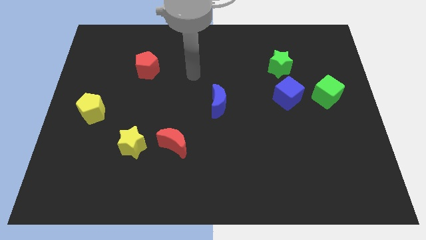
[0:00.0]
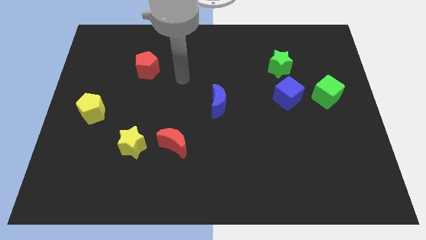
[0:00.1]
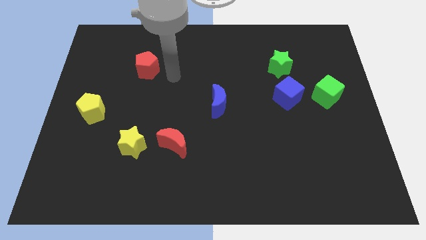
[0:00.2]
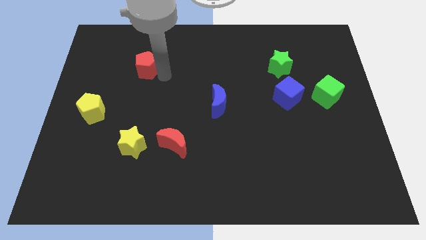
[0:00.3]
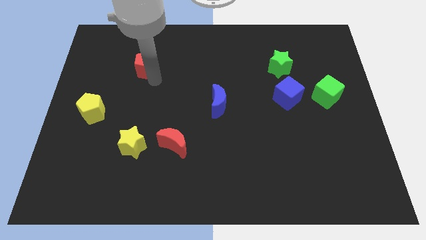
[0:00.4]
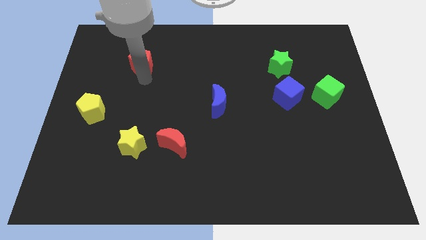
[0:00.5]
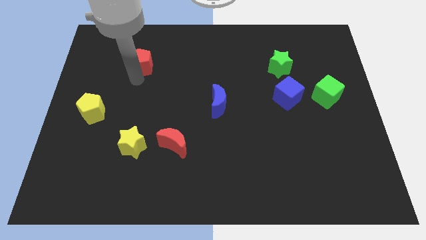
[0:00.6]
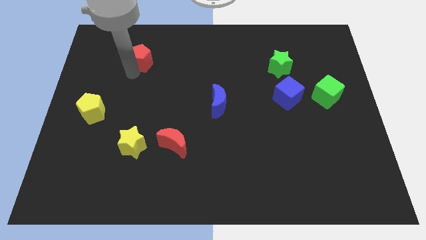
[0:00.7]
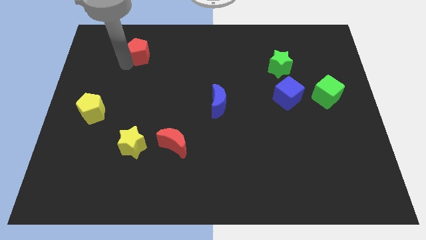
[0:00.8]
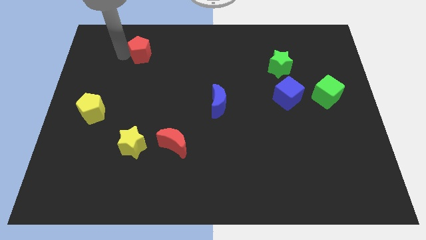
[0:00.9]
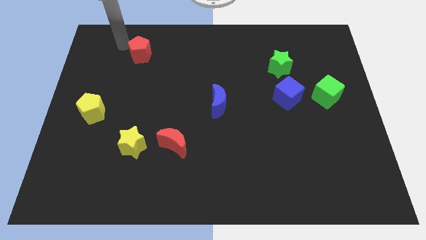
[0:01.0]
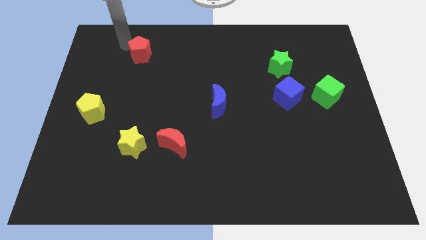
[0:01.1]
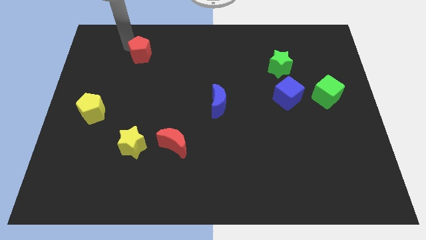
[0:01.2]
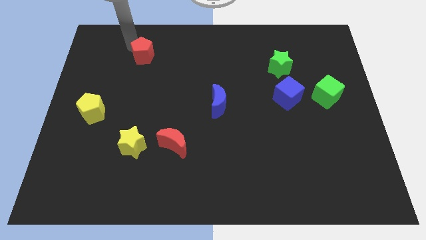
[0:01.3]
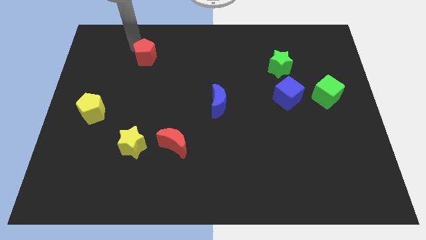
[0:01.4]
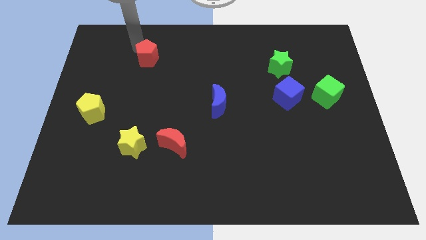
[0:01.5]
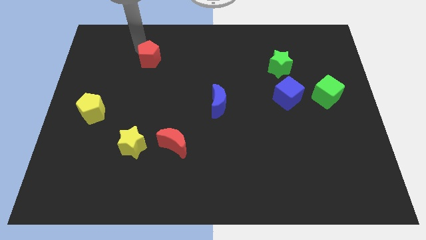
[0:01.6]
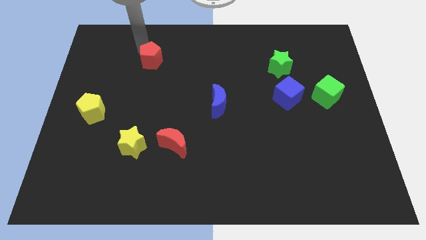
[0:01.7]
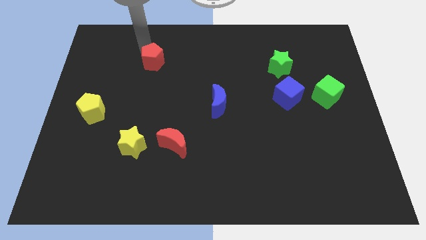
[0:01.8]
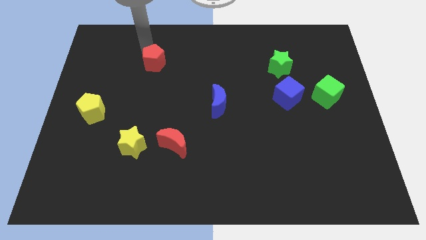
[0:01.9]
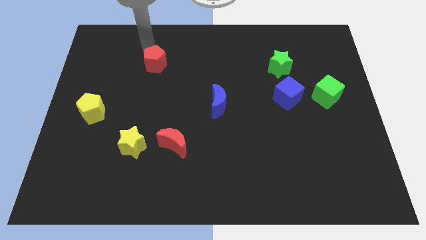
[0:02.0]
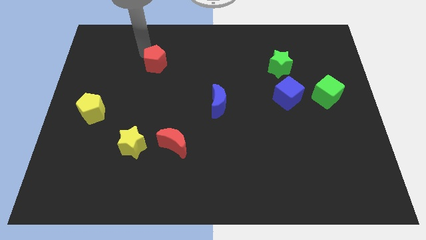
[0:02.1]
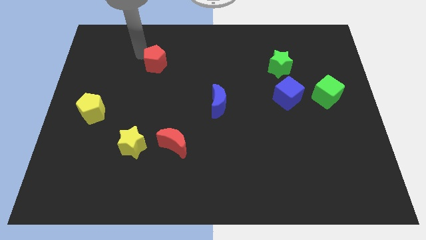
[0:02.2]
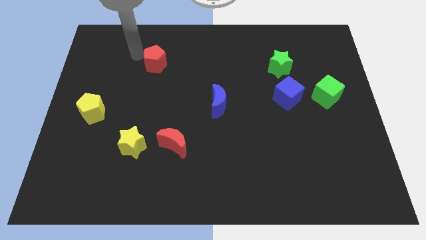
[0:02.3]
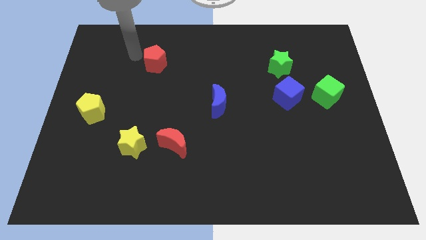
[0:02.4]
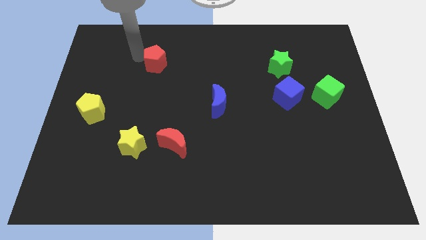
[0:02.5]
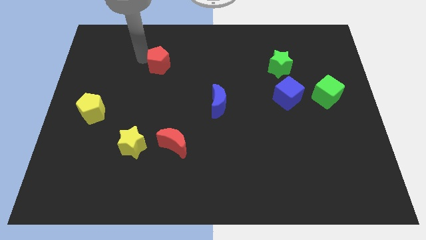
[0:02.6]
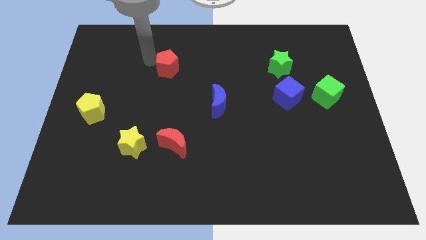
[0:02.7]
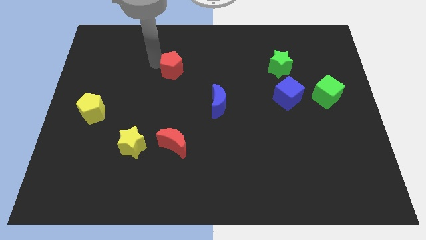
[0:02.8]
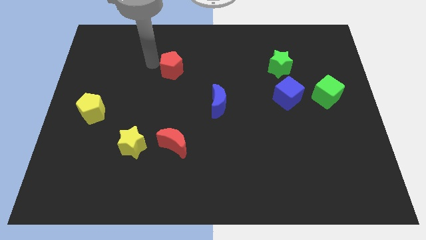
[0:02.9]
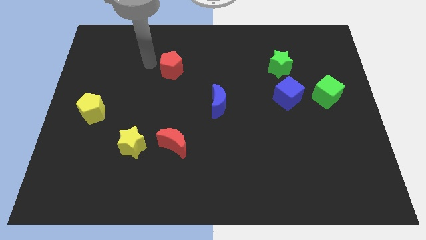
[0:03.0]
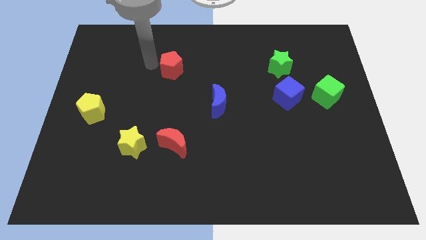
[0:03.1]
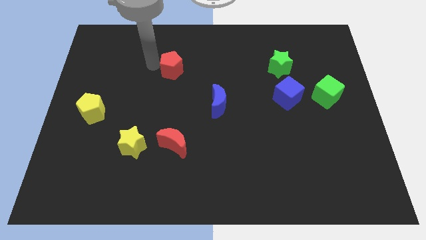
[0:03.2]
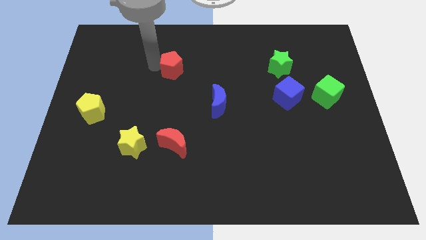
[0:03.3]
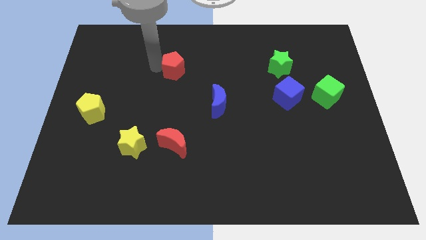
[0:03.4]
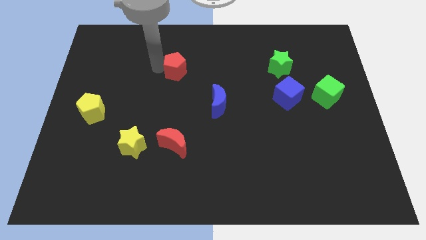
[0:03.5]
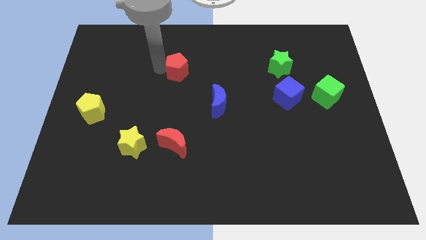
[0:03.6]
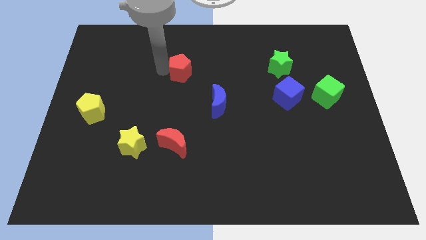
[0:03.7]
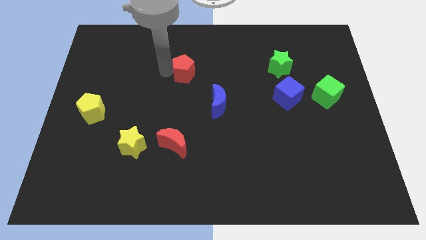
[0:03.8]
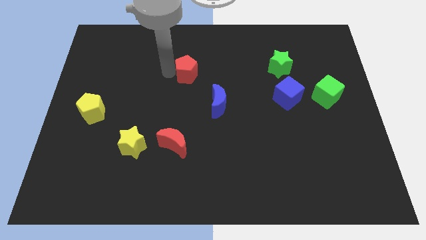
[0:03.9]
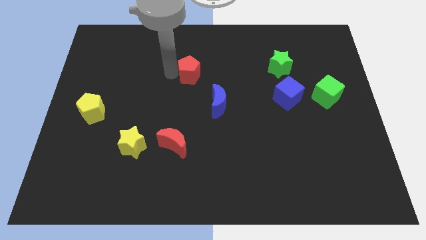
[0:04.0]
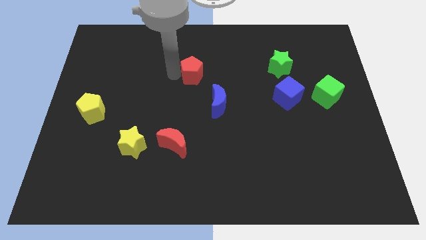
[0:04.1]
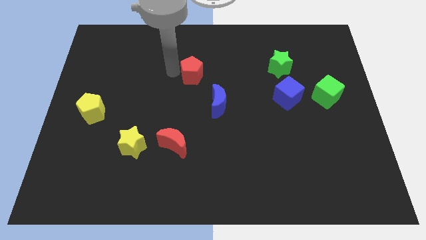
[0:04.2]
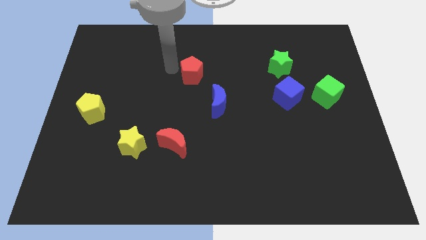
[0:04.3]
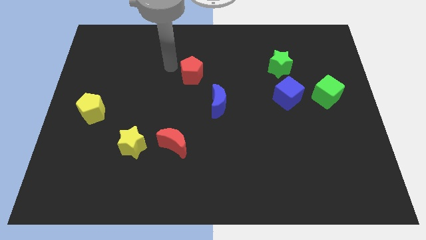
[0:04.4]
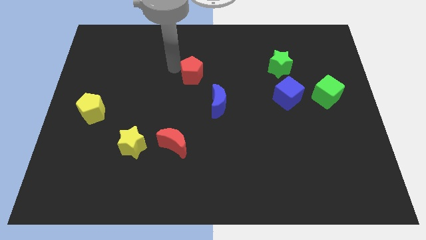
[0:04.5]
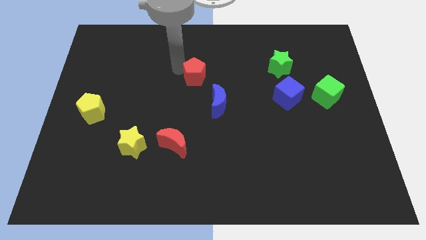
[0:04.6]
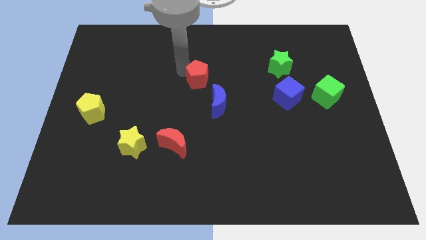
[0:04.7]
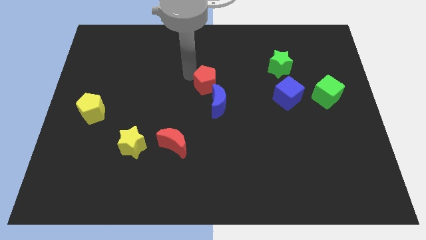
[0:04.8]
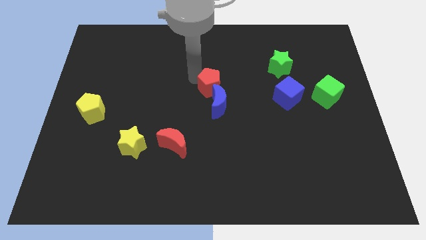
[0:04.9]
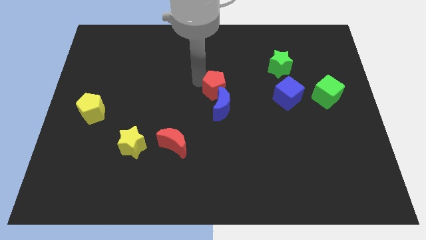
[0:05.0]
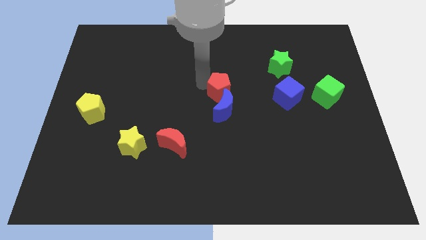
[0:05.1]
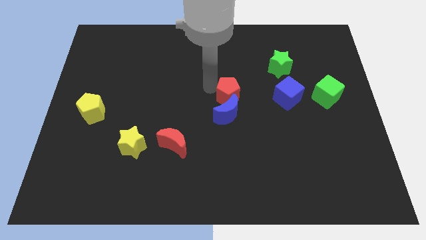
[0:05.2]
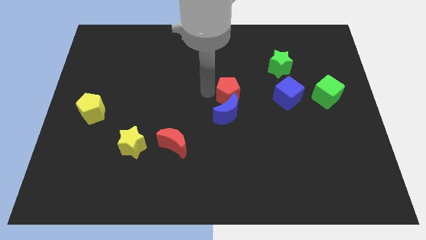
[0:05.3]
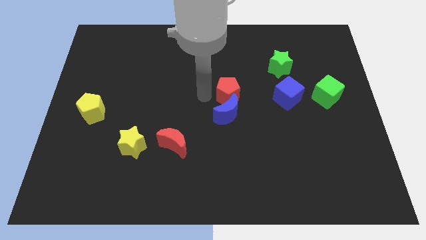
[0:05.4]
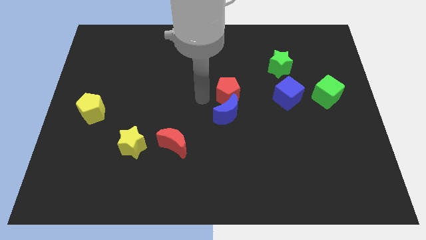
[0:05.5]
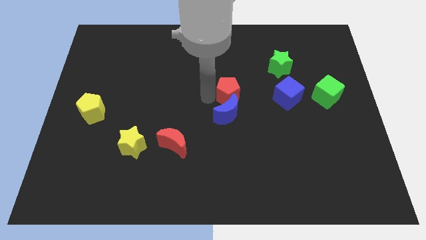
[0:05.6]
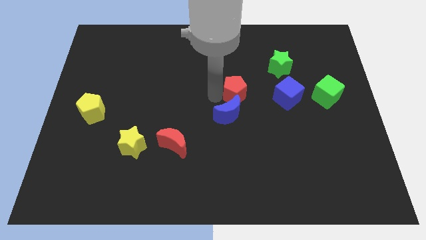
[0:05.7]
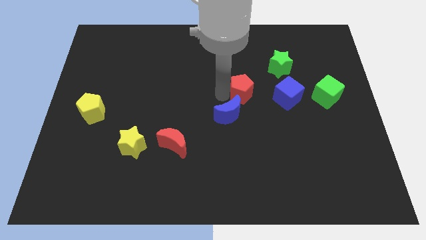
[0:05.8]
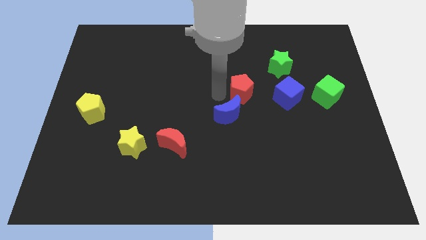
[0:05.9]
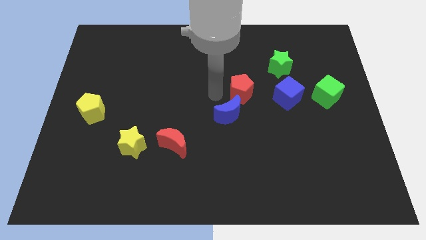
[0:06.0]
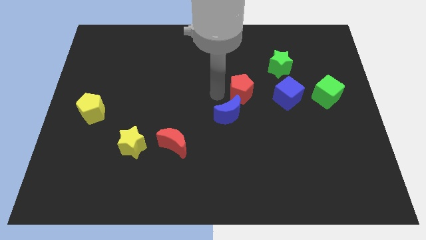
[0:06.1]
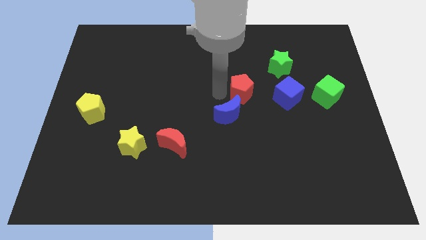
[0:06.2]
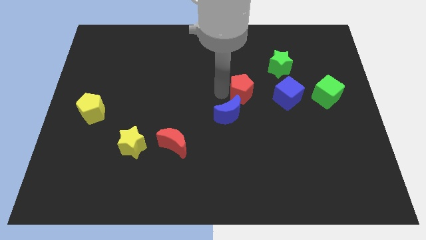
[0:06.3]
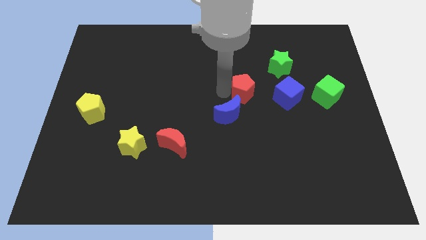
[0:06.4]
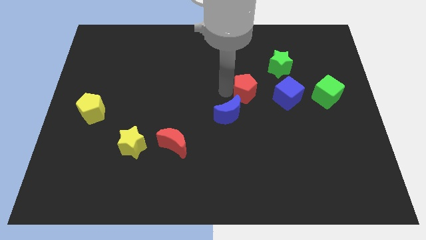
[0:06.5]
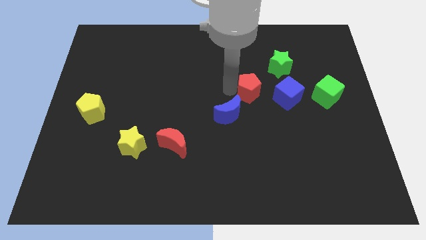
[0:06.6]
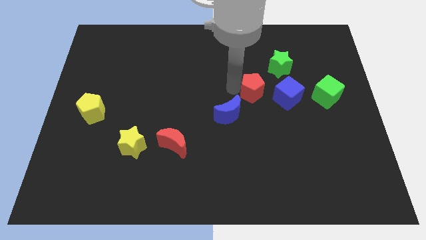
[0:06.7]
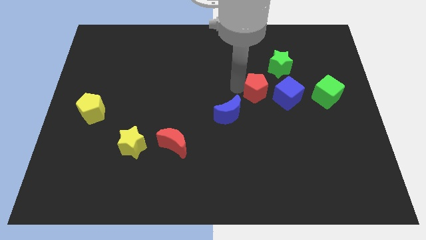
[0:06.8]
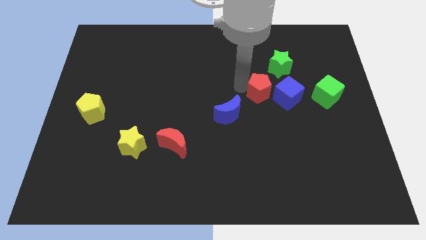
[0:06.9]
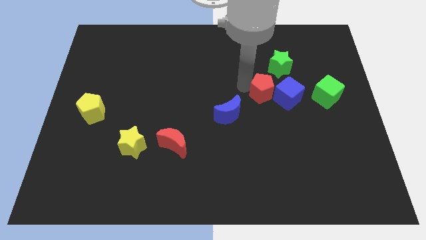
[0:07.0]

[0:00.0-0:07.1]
put the red pentagon to the blue cube

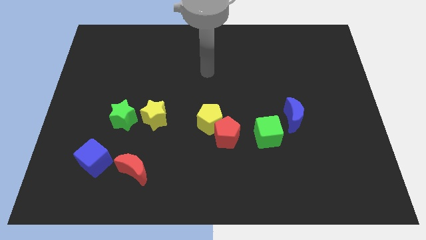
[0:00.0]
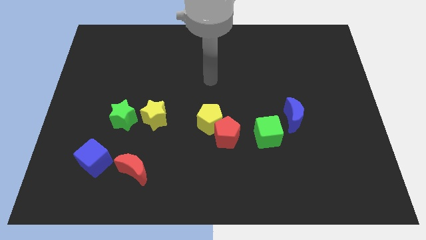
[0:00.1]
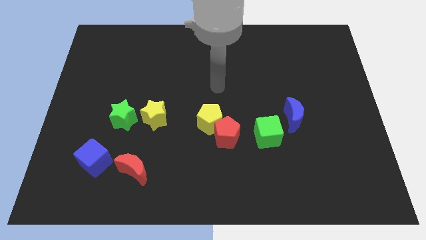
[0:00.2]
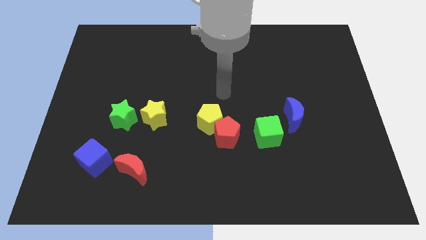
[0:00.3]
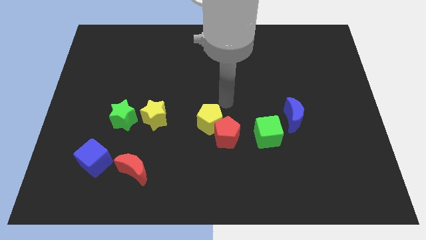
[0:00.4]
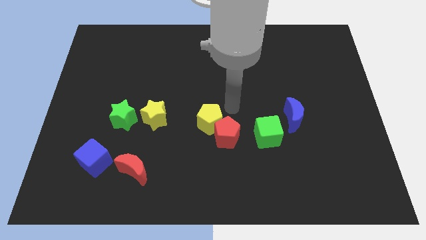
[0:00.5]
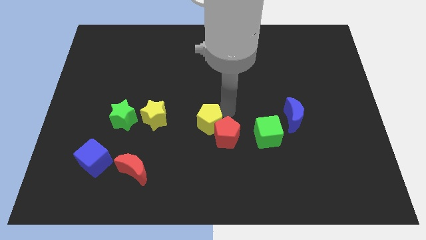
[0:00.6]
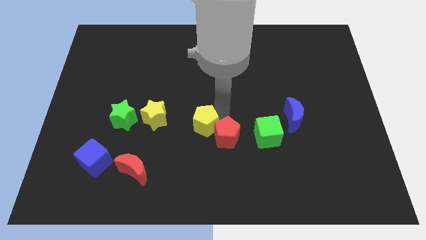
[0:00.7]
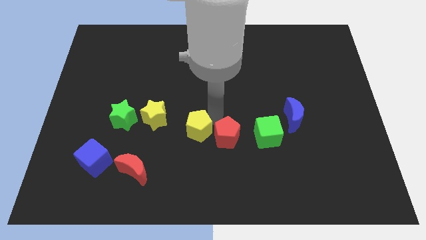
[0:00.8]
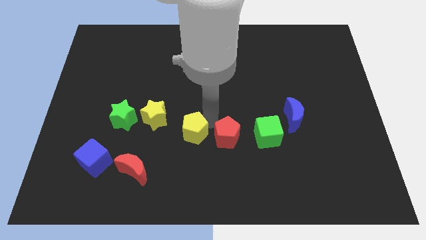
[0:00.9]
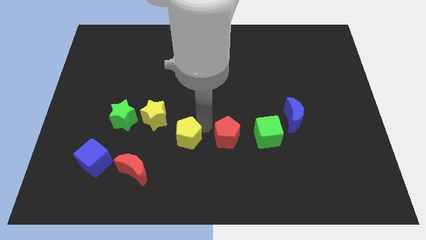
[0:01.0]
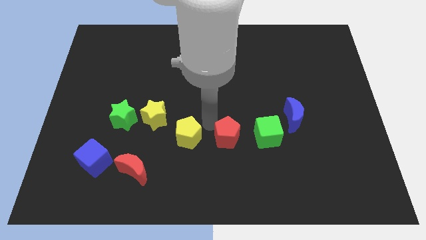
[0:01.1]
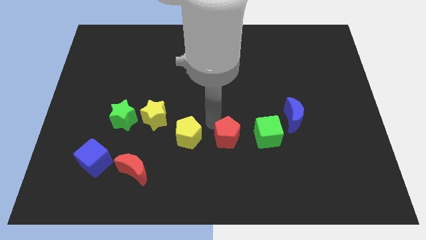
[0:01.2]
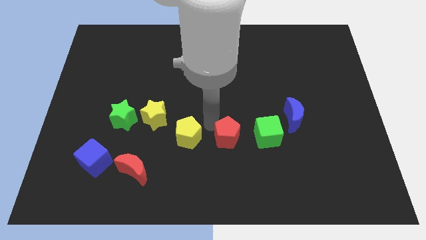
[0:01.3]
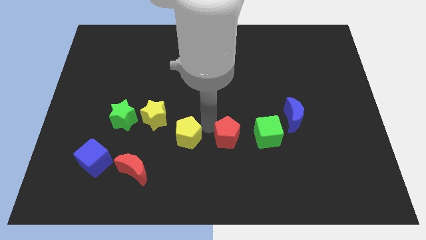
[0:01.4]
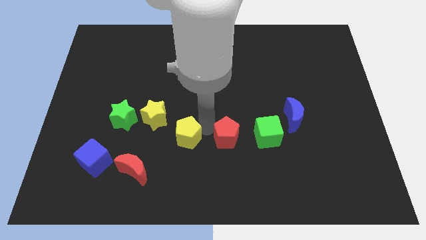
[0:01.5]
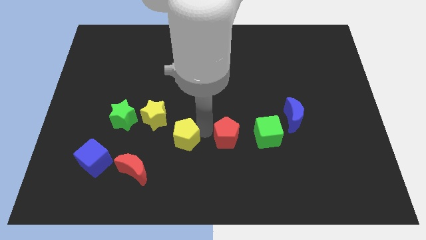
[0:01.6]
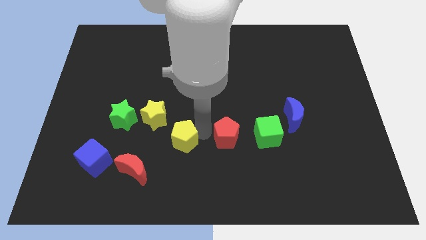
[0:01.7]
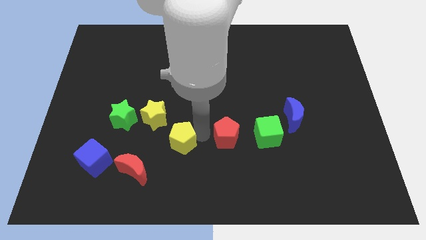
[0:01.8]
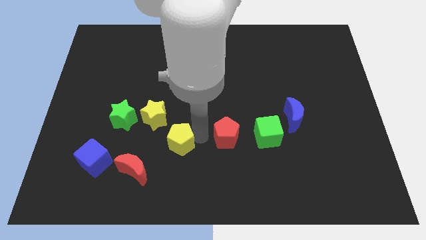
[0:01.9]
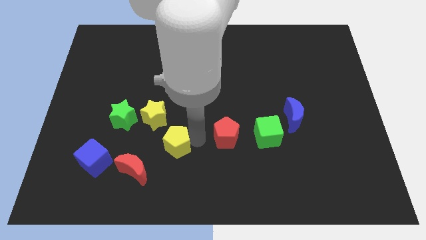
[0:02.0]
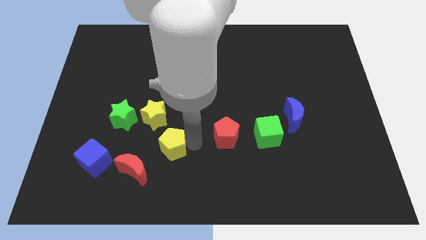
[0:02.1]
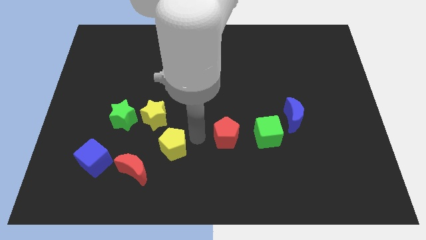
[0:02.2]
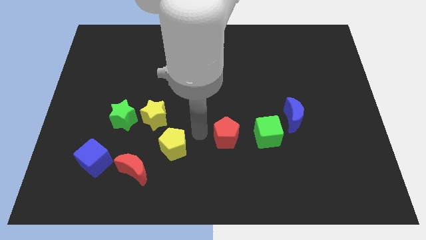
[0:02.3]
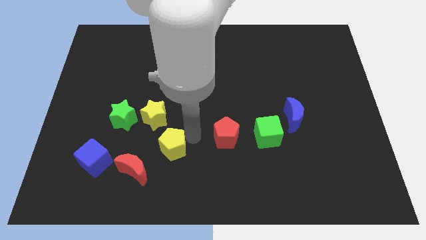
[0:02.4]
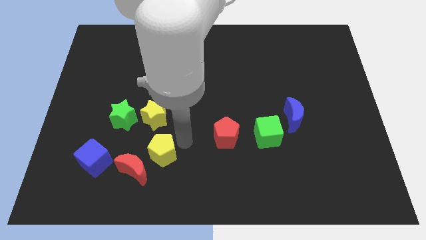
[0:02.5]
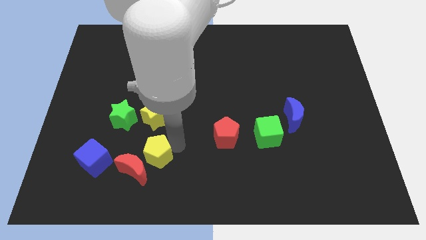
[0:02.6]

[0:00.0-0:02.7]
push the yellow pentagon to the red moon
